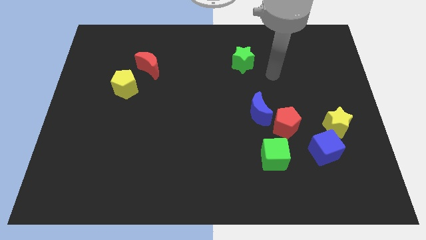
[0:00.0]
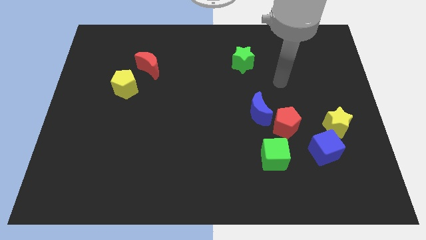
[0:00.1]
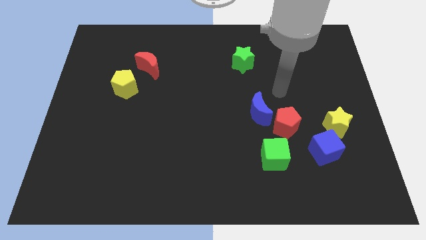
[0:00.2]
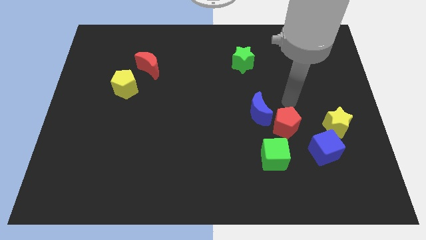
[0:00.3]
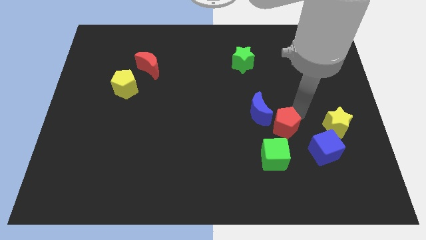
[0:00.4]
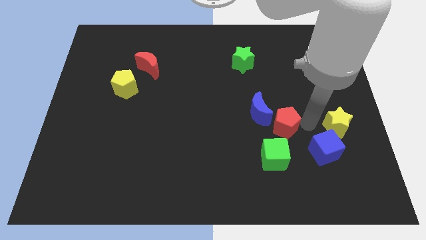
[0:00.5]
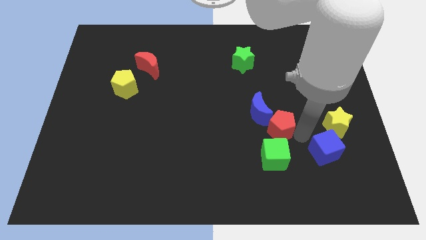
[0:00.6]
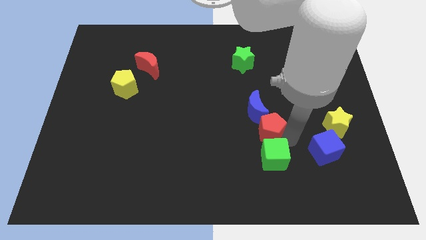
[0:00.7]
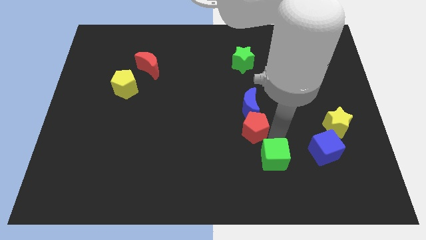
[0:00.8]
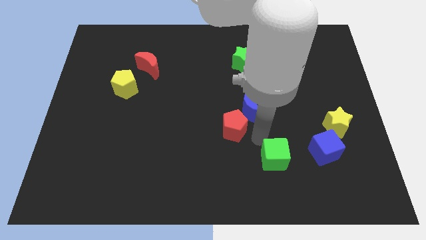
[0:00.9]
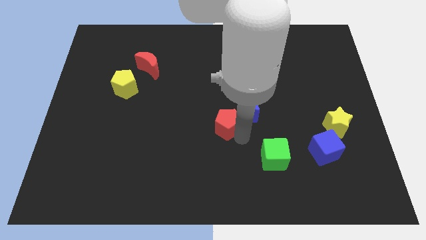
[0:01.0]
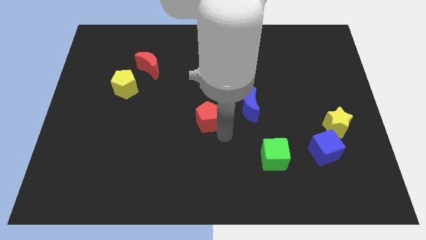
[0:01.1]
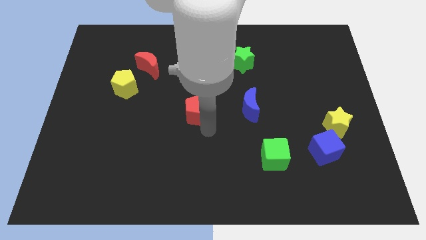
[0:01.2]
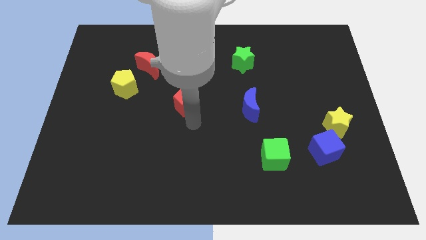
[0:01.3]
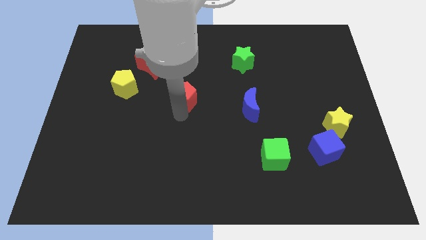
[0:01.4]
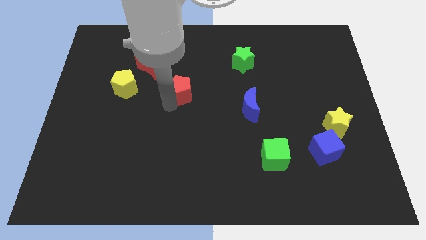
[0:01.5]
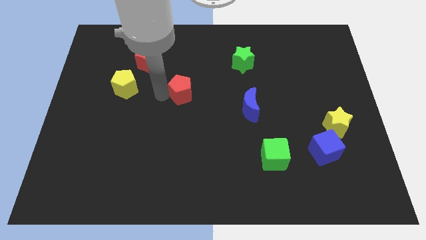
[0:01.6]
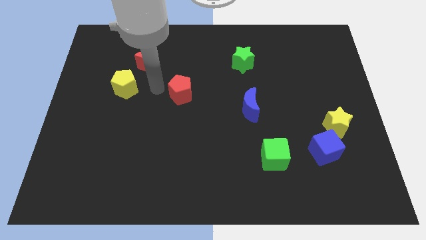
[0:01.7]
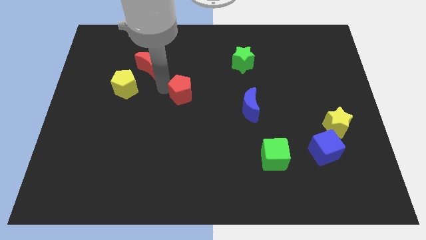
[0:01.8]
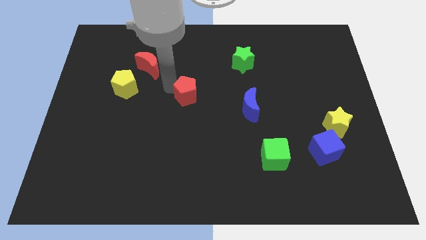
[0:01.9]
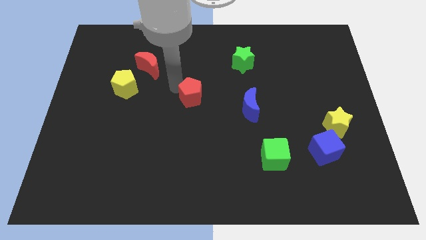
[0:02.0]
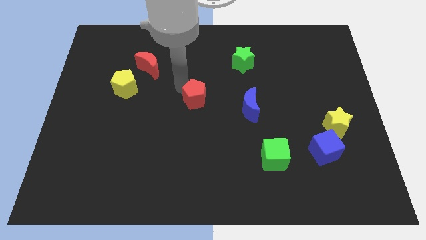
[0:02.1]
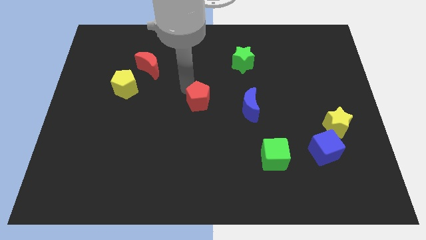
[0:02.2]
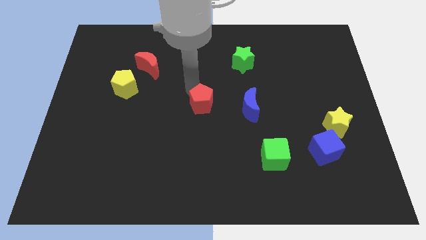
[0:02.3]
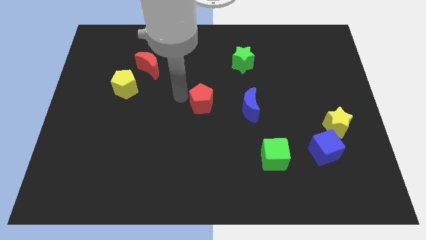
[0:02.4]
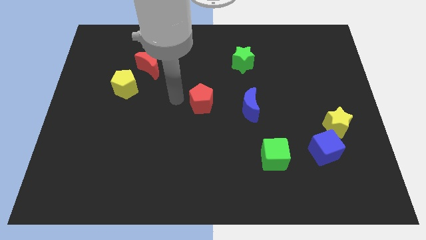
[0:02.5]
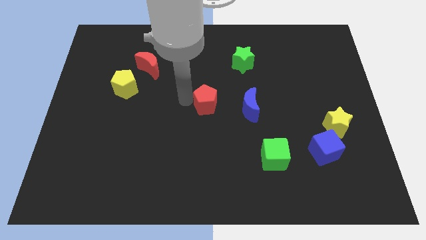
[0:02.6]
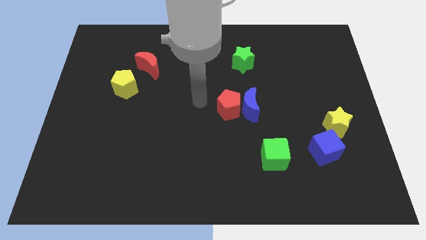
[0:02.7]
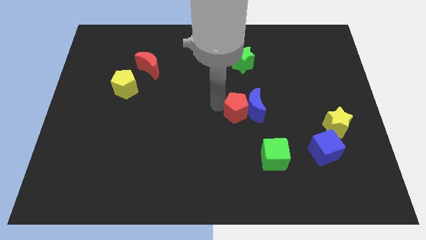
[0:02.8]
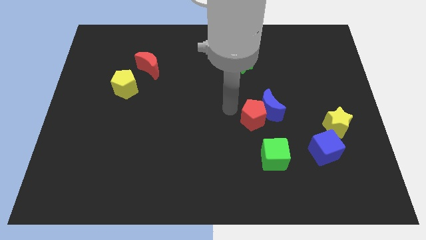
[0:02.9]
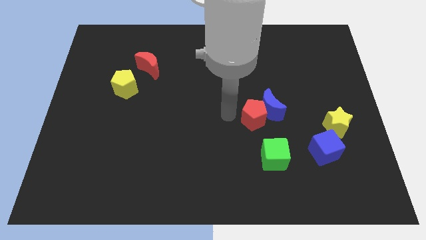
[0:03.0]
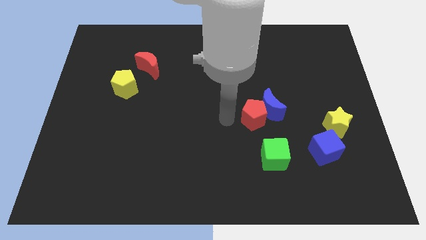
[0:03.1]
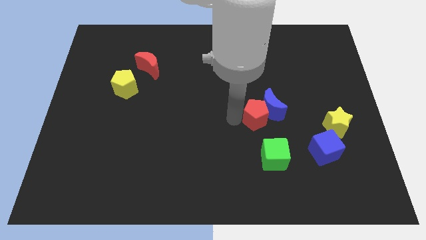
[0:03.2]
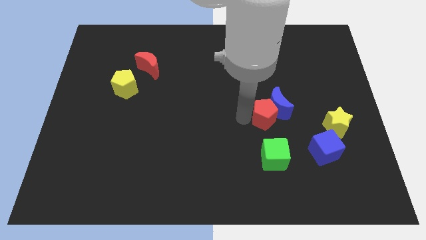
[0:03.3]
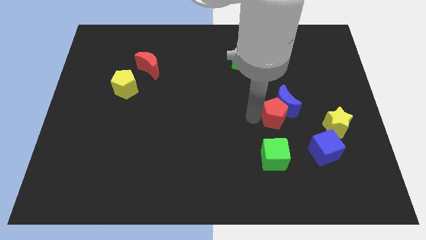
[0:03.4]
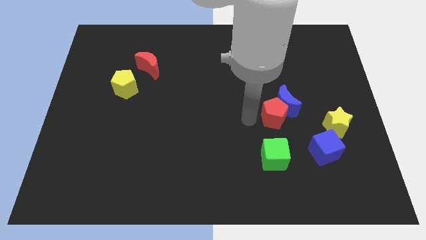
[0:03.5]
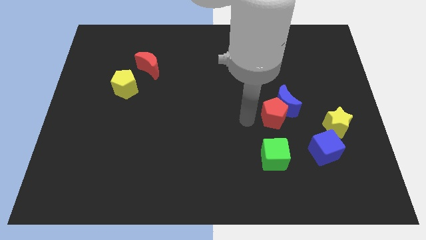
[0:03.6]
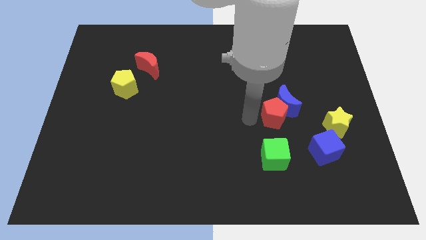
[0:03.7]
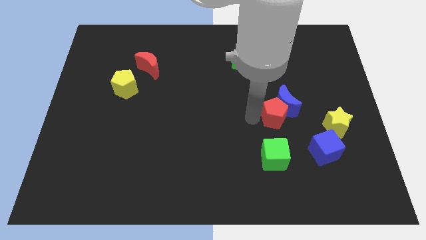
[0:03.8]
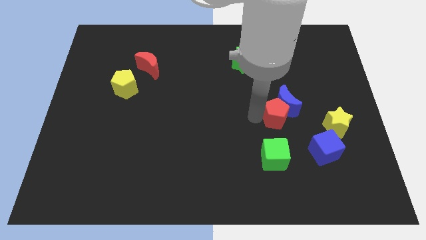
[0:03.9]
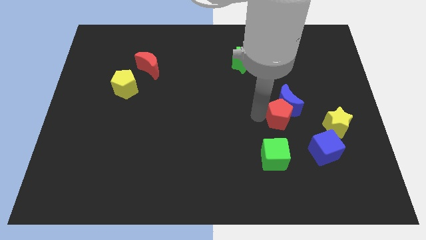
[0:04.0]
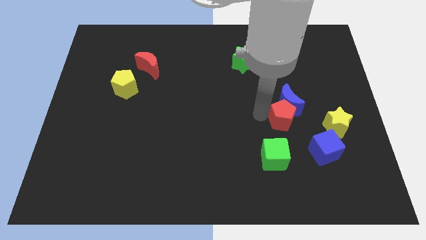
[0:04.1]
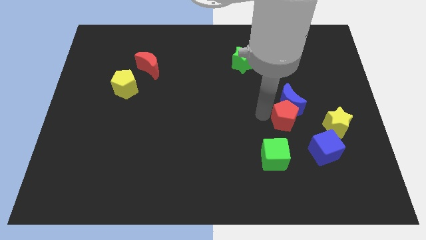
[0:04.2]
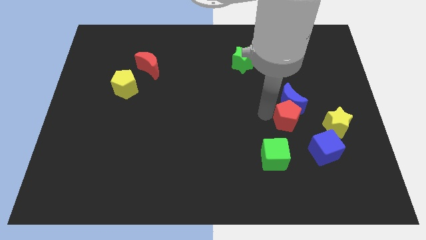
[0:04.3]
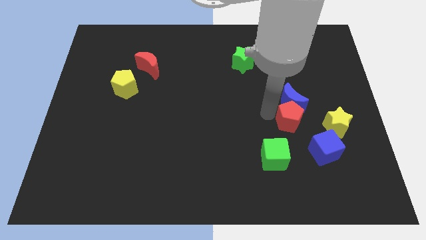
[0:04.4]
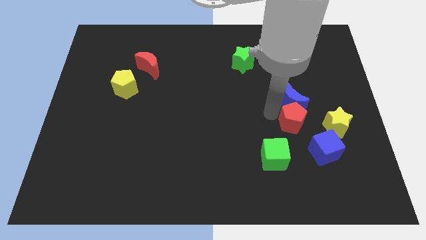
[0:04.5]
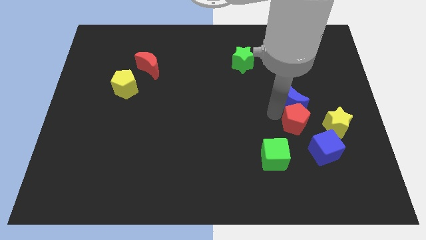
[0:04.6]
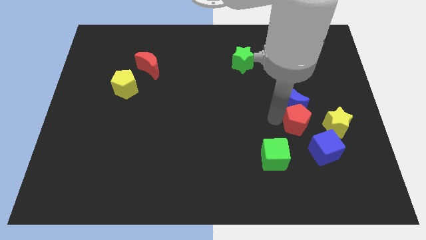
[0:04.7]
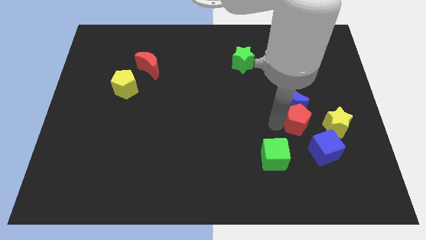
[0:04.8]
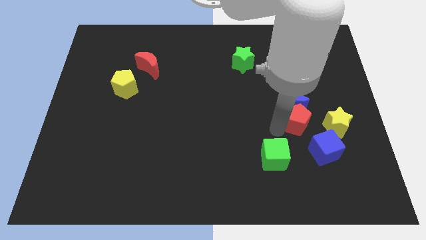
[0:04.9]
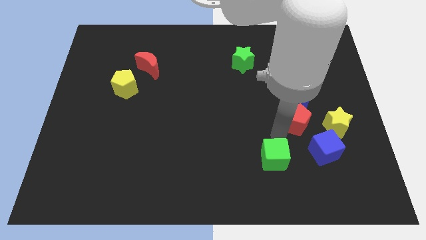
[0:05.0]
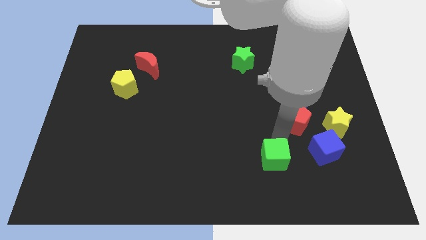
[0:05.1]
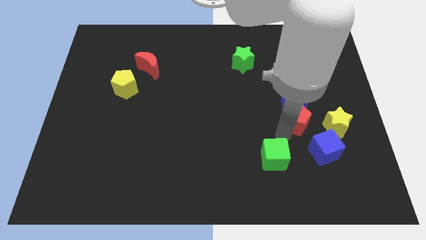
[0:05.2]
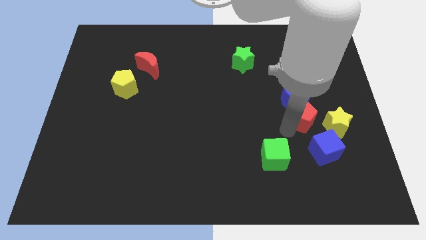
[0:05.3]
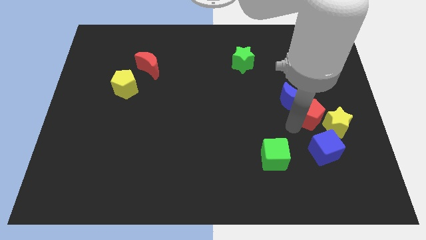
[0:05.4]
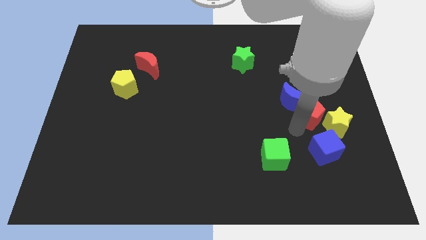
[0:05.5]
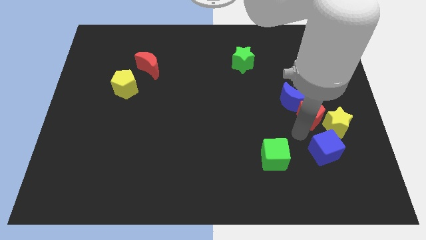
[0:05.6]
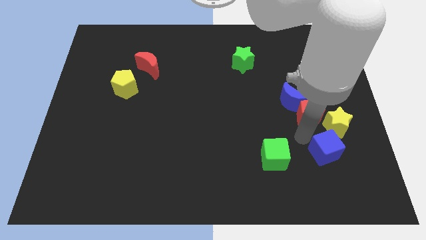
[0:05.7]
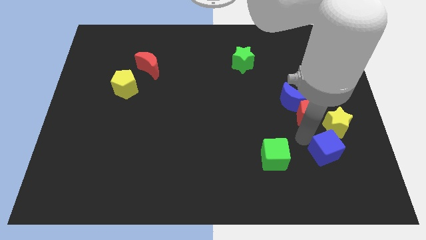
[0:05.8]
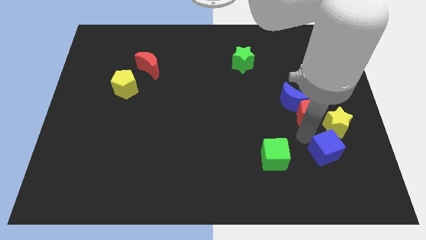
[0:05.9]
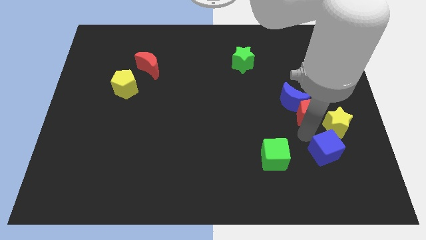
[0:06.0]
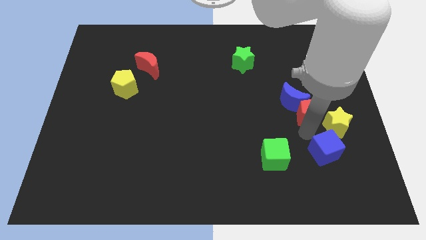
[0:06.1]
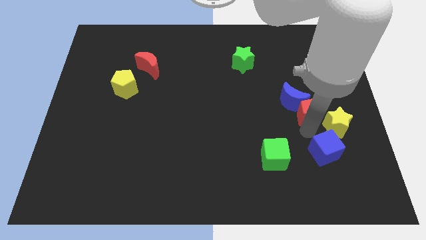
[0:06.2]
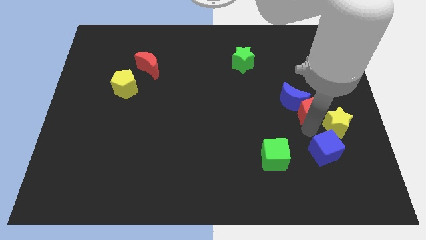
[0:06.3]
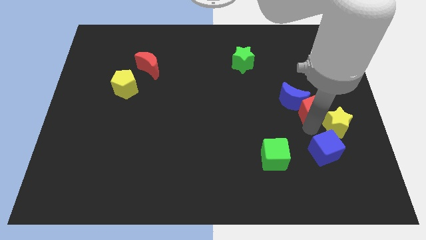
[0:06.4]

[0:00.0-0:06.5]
slide the red pentagon to the top side of the yellow star
